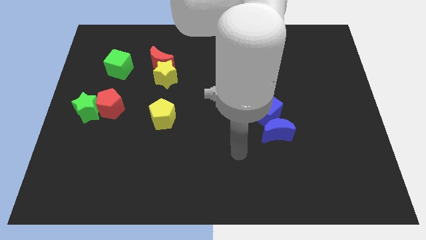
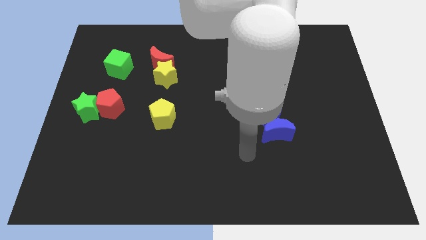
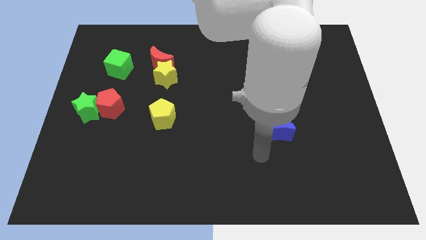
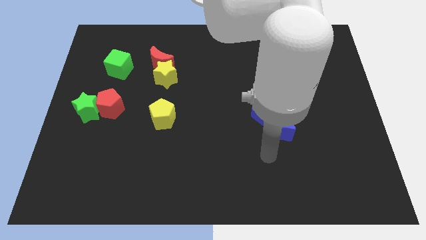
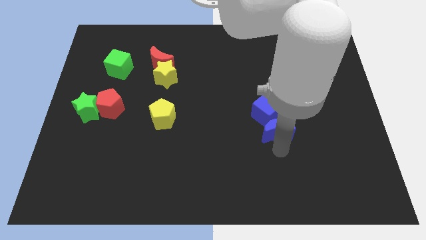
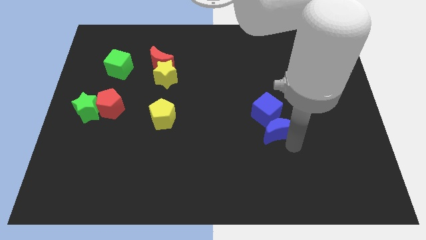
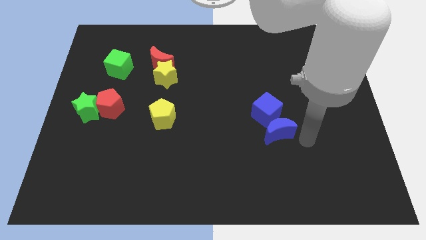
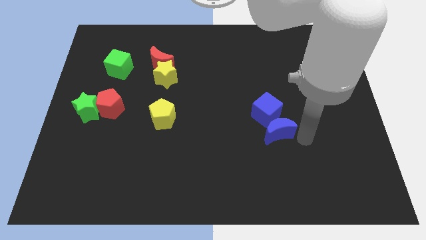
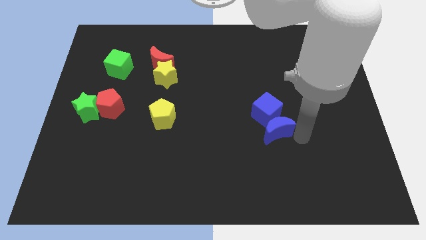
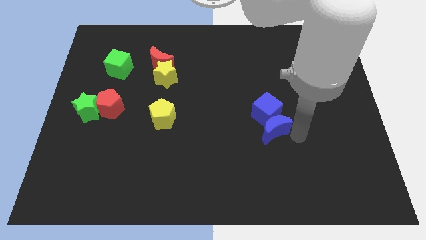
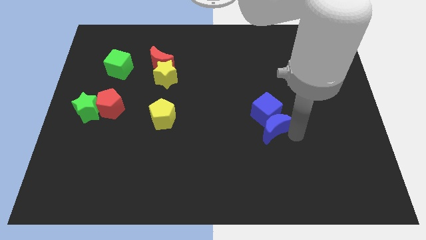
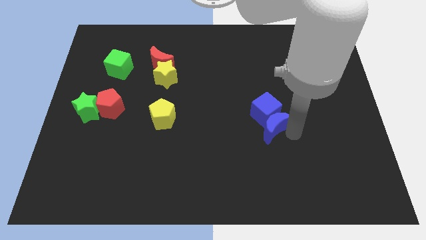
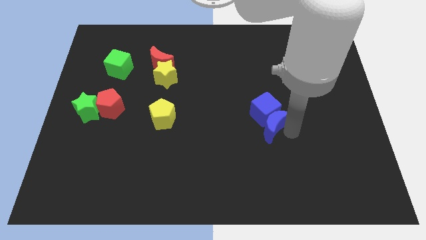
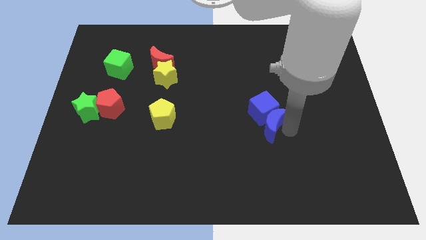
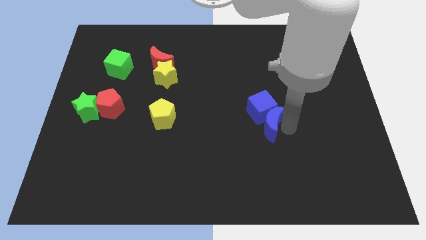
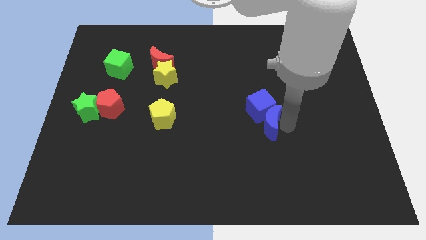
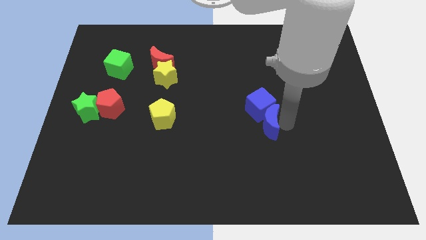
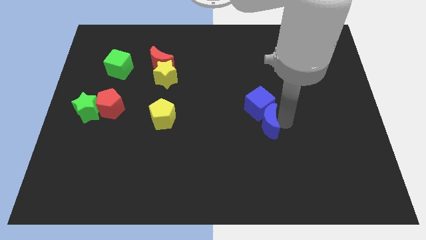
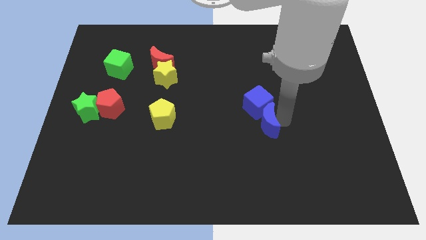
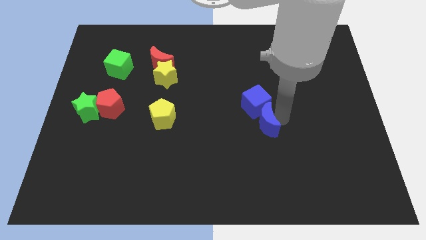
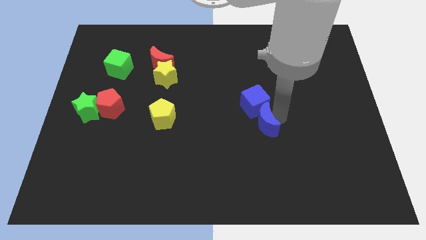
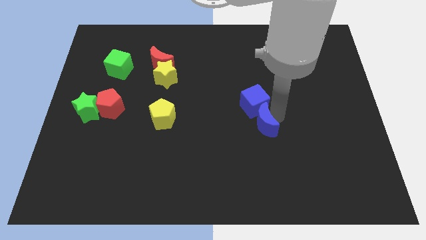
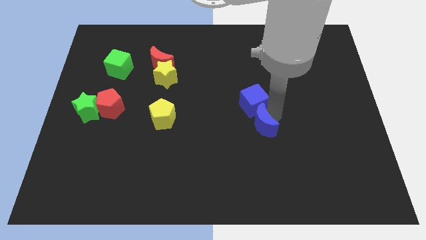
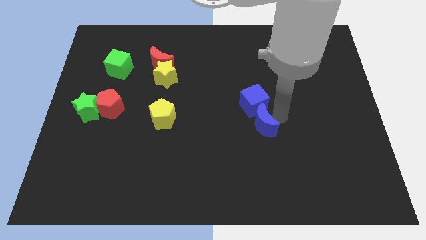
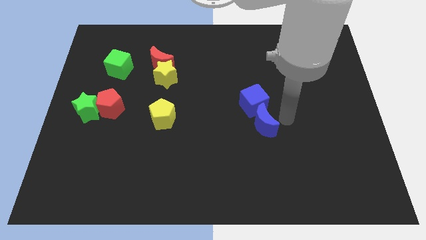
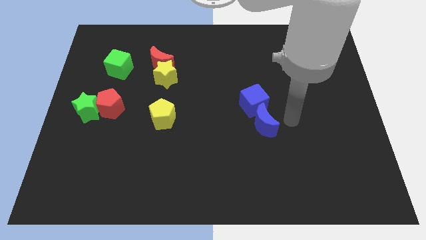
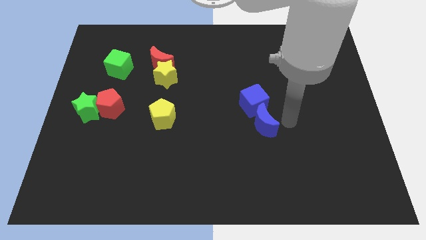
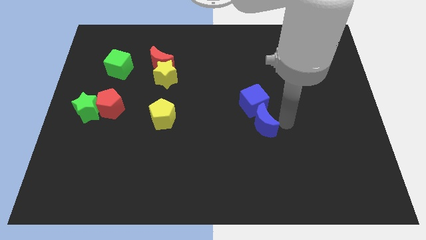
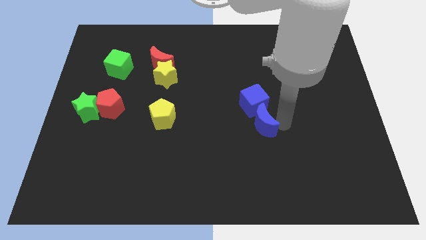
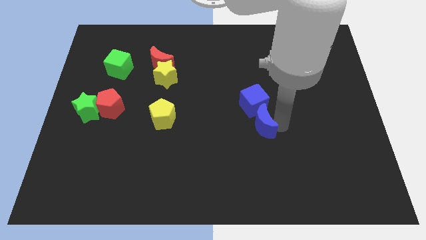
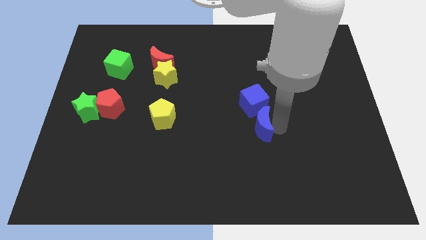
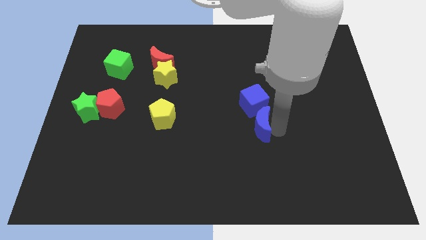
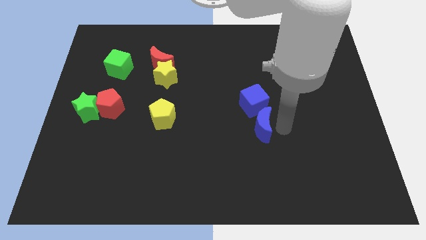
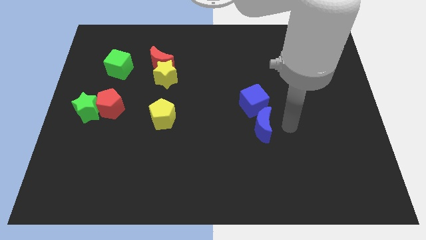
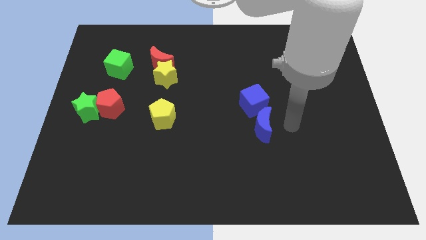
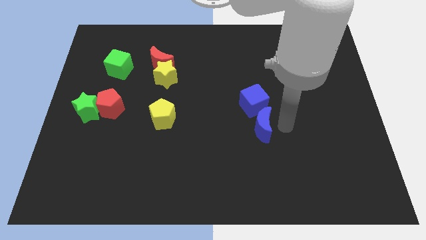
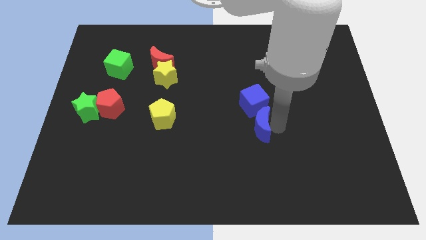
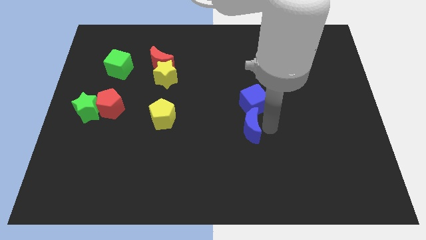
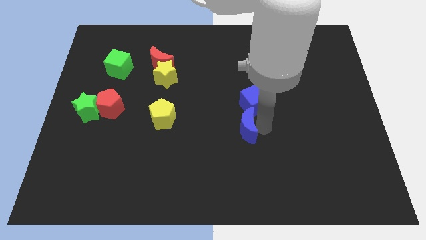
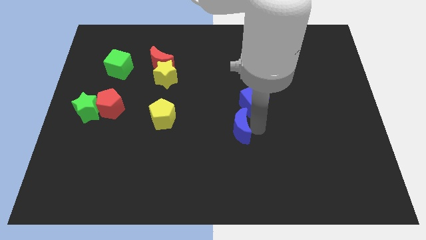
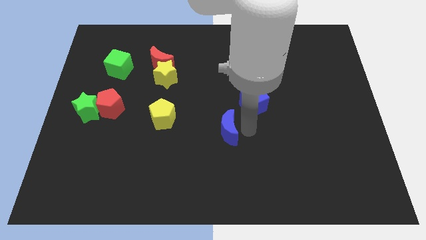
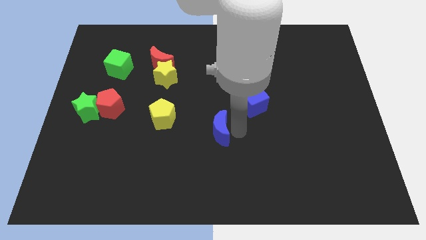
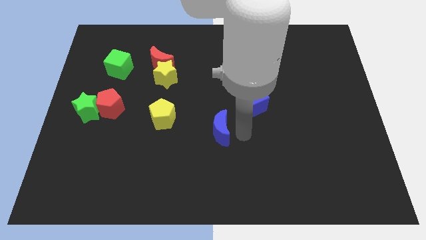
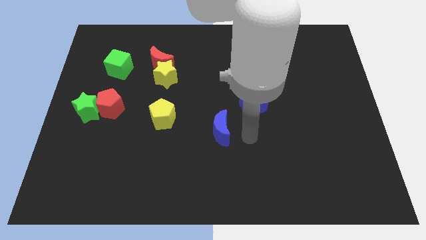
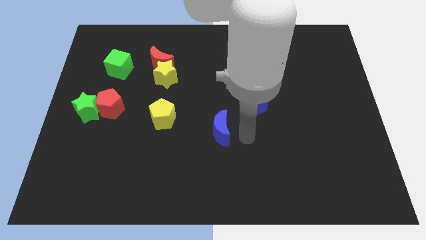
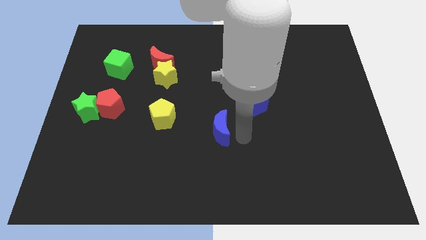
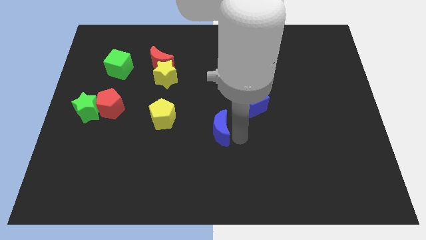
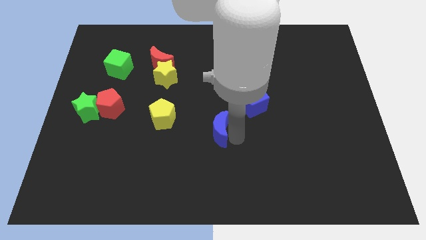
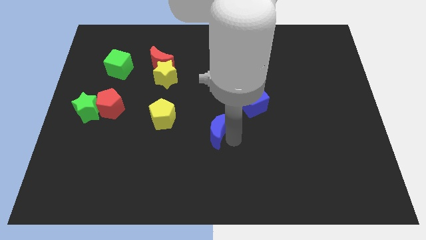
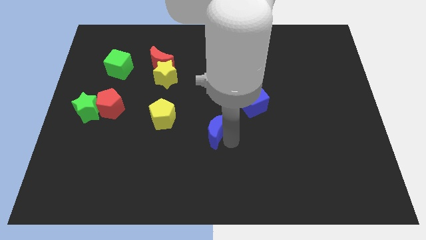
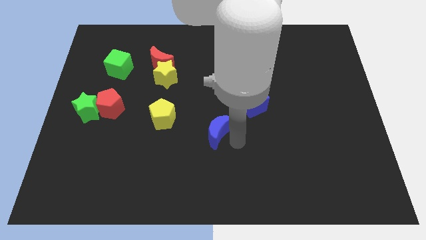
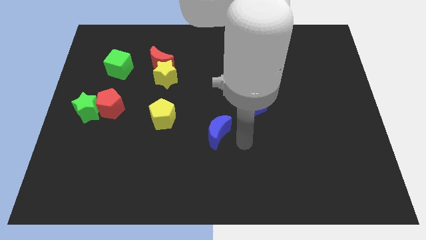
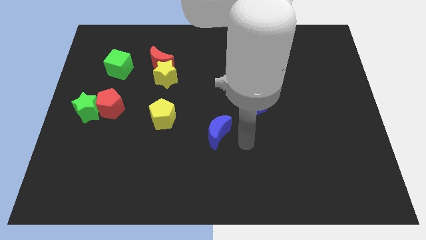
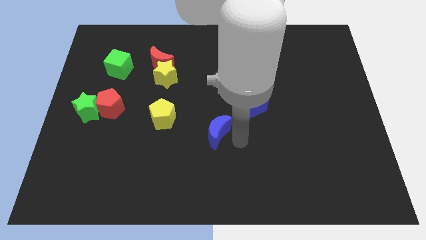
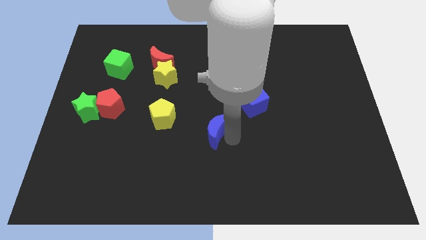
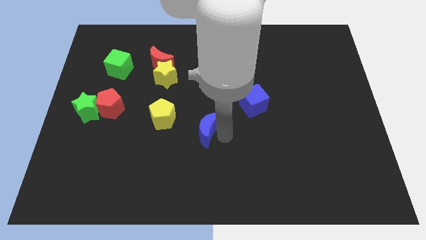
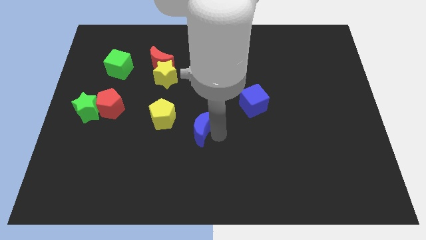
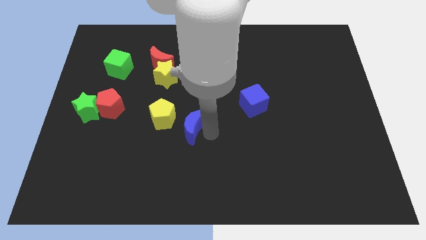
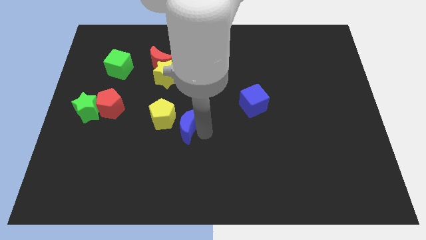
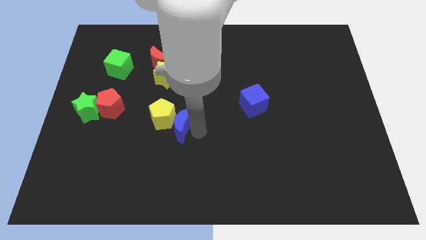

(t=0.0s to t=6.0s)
slide the blue moon towards the yellow pentagon

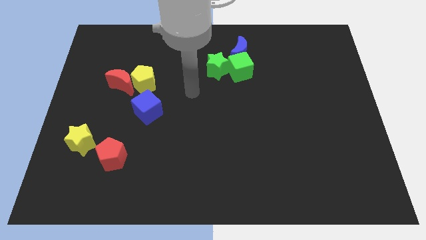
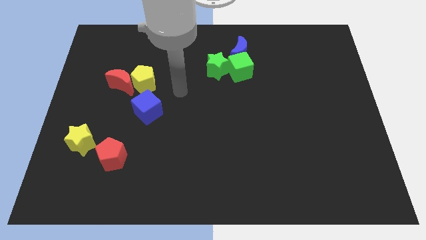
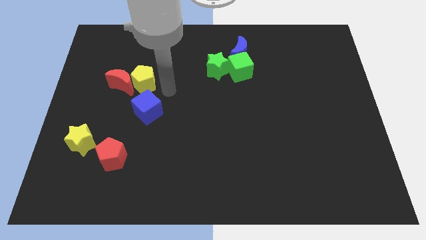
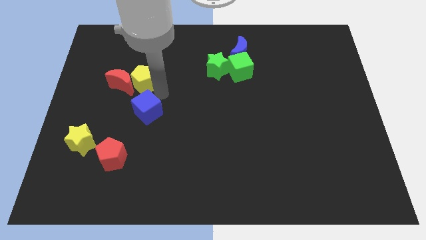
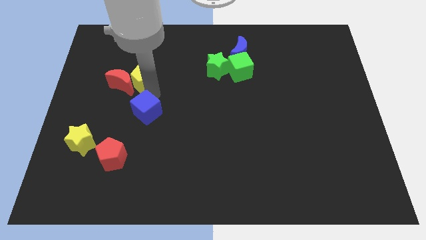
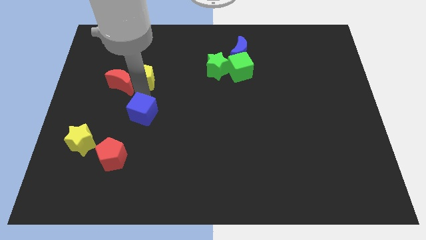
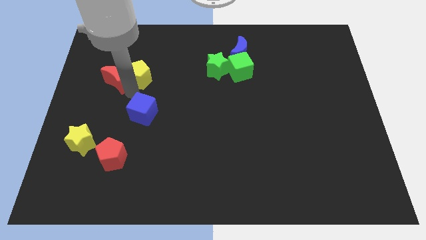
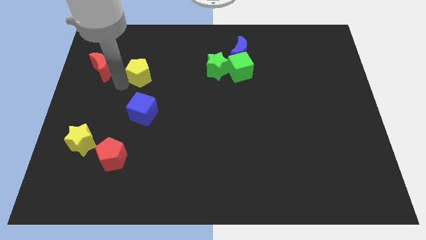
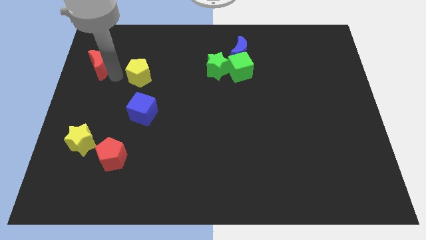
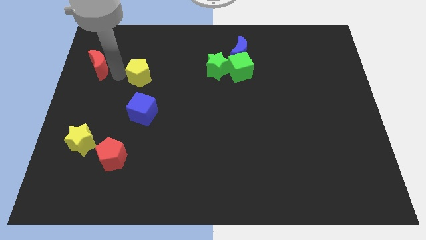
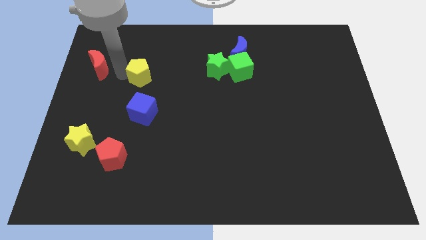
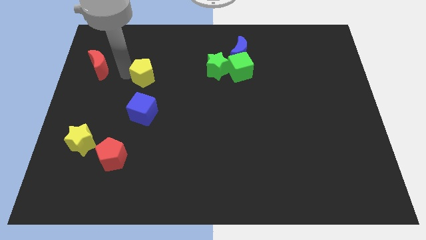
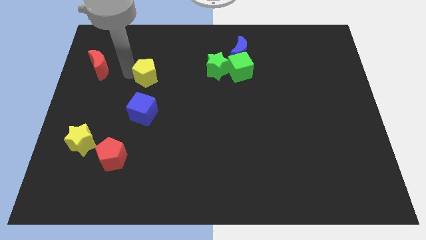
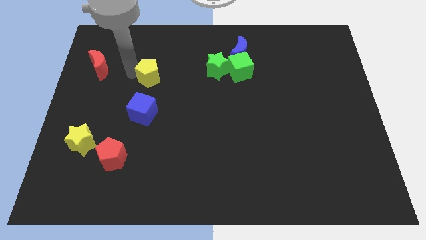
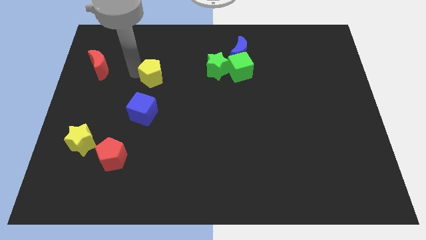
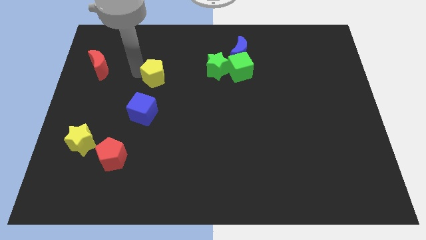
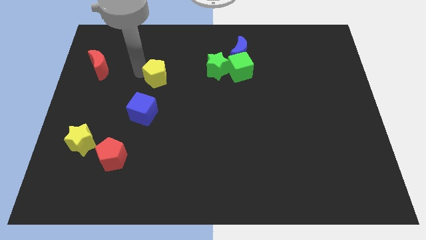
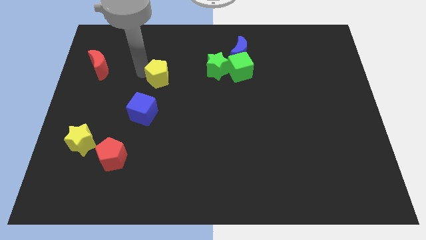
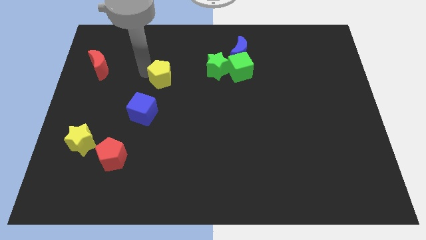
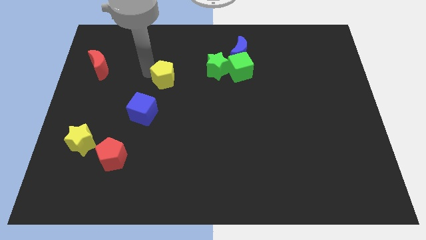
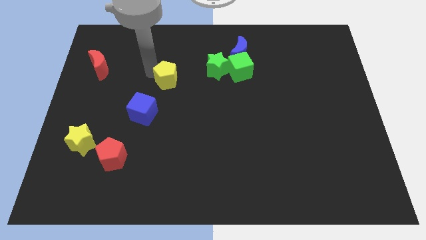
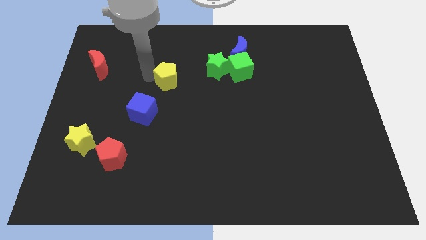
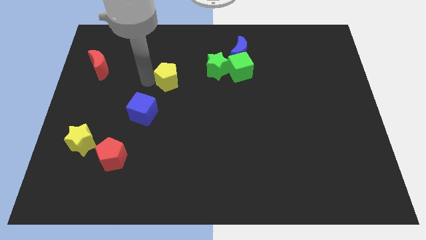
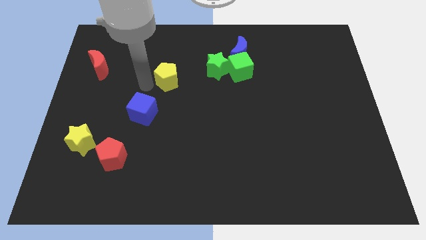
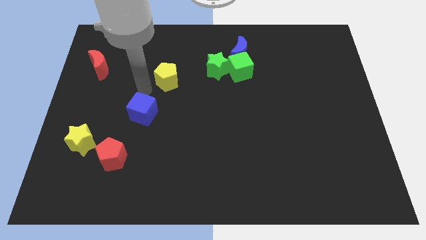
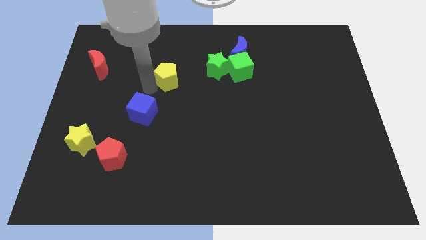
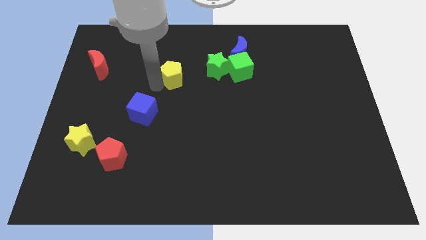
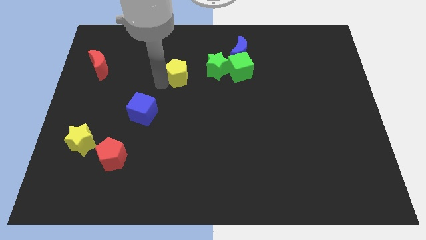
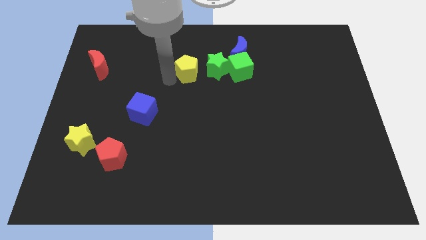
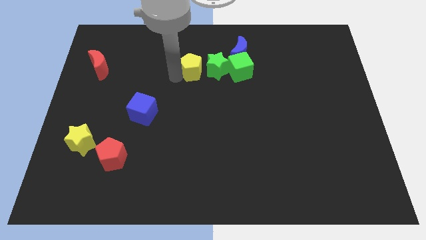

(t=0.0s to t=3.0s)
move the yellow pentagon close to the green star
